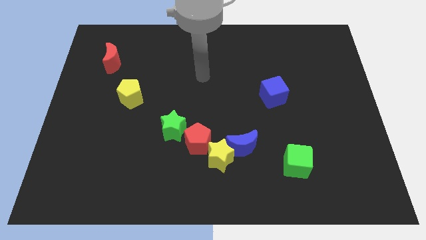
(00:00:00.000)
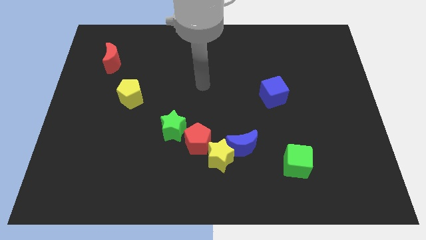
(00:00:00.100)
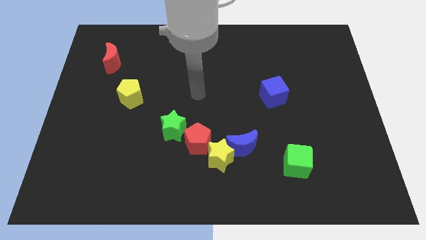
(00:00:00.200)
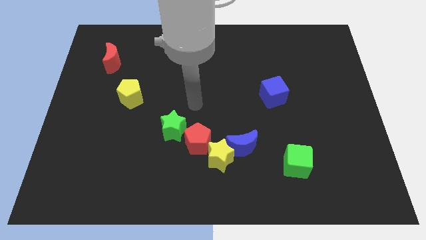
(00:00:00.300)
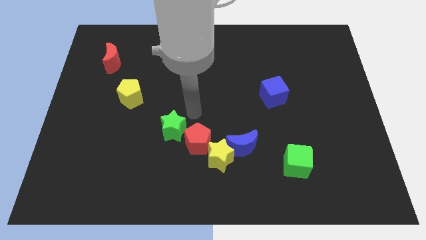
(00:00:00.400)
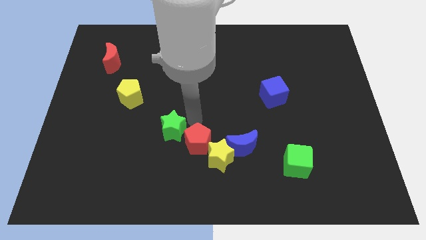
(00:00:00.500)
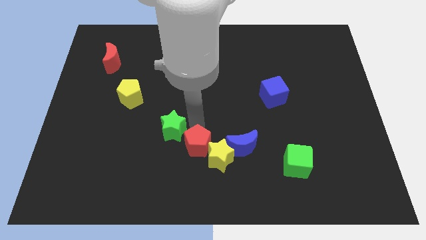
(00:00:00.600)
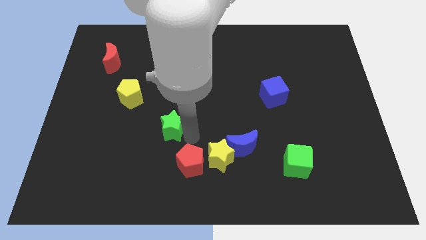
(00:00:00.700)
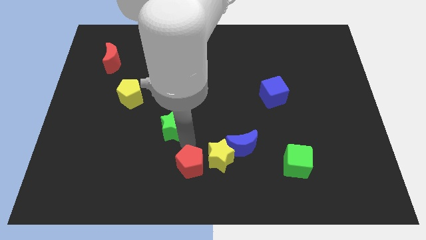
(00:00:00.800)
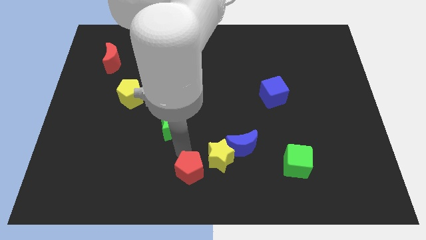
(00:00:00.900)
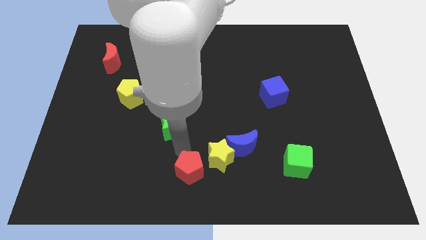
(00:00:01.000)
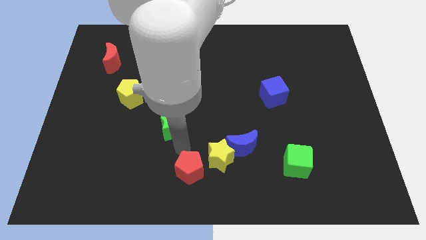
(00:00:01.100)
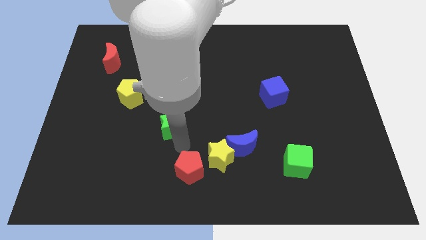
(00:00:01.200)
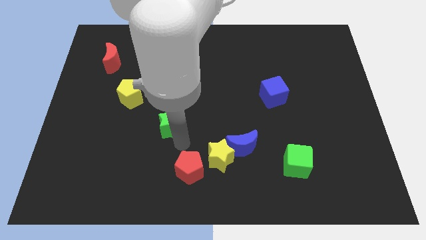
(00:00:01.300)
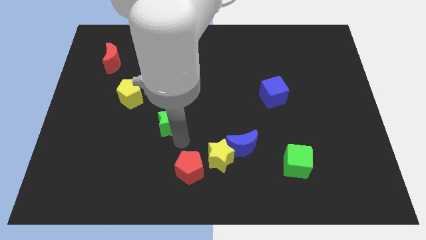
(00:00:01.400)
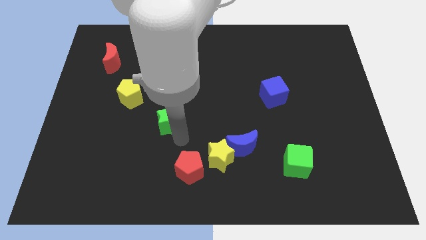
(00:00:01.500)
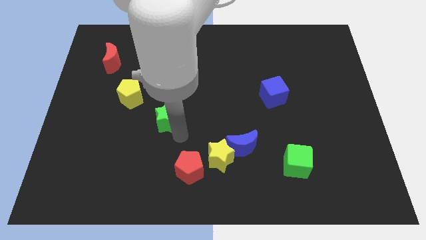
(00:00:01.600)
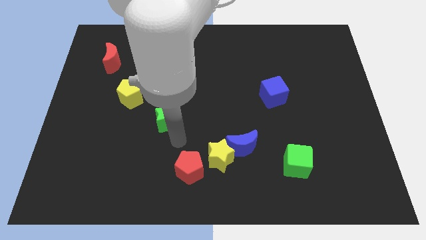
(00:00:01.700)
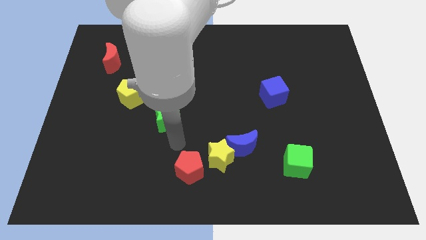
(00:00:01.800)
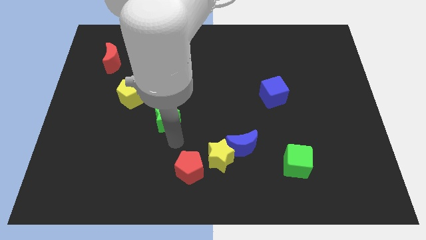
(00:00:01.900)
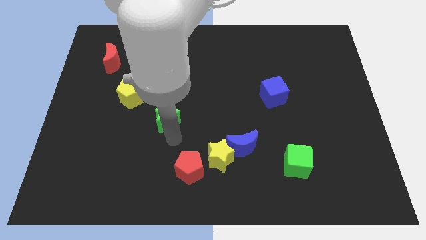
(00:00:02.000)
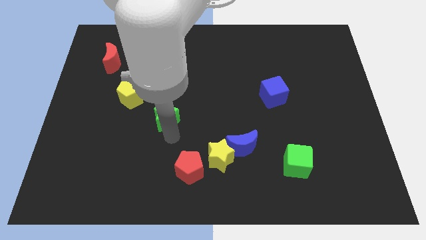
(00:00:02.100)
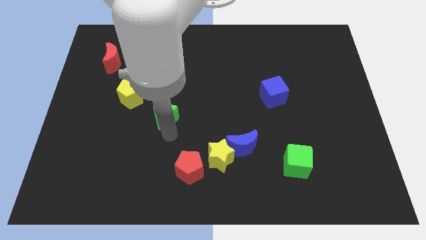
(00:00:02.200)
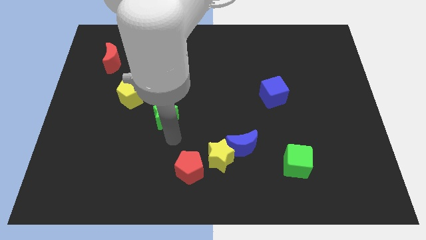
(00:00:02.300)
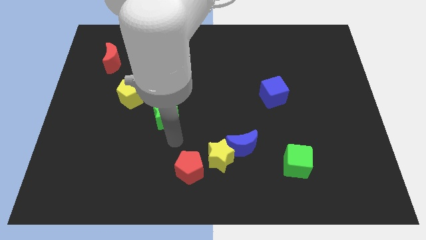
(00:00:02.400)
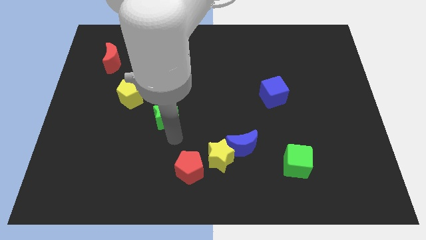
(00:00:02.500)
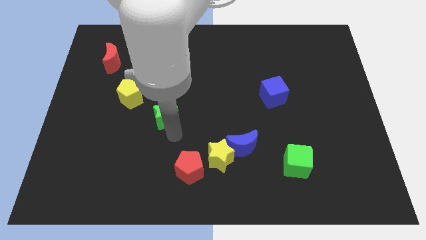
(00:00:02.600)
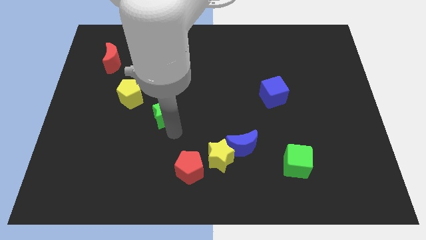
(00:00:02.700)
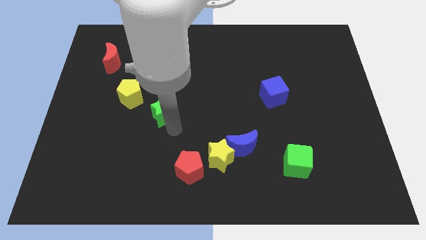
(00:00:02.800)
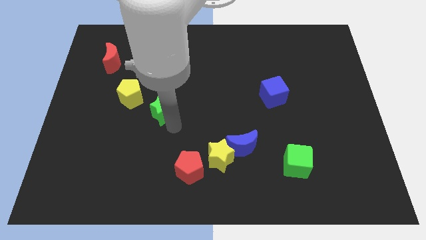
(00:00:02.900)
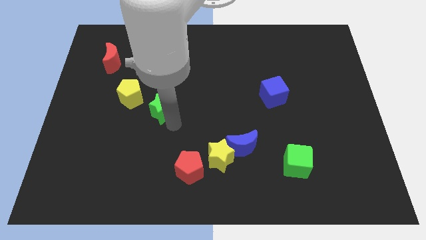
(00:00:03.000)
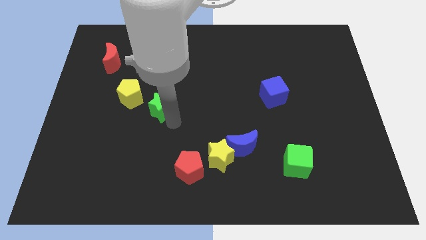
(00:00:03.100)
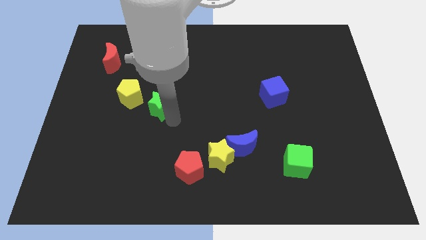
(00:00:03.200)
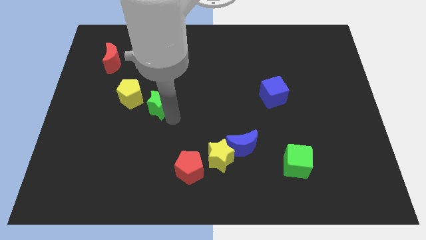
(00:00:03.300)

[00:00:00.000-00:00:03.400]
move the green star up and left diagonally a bit

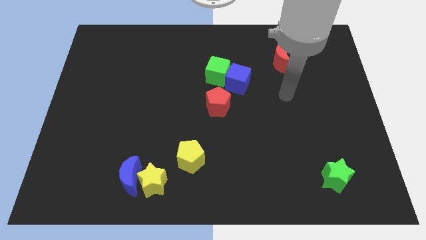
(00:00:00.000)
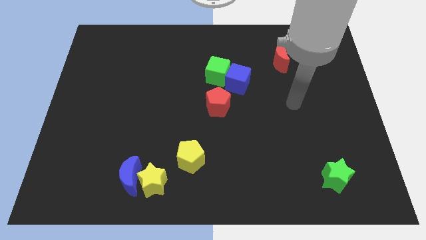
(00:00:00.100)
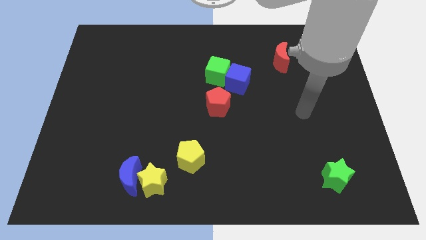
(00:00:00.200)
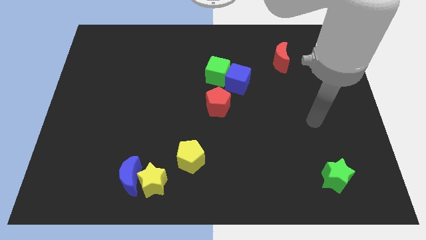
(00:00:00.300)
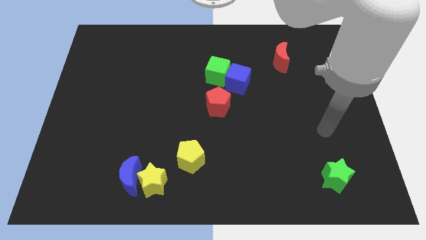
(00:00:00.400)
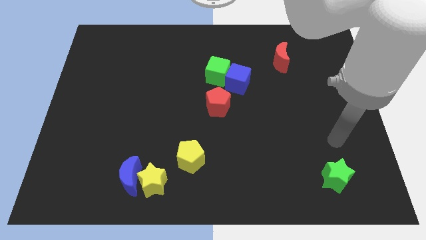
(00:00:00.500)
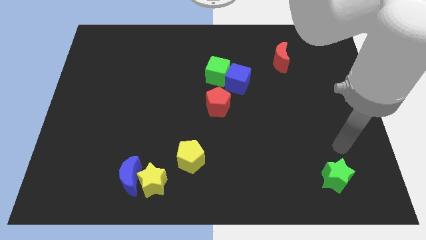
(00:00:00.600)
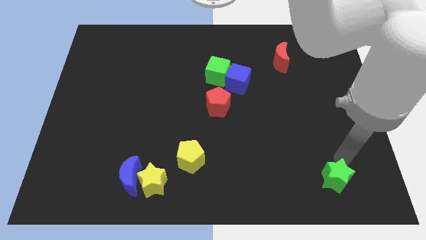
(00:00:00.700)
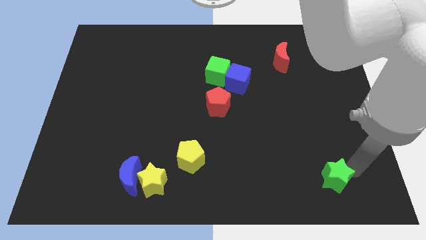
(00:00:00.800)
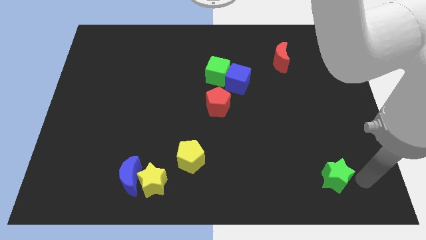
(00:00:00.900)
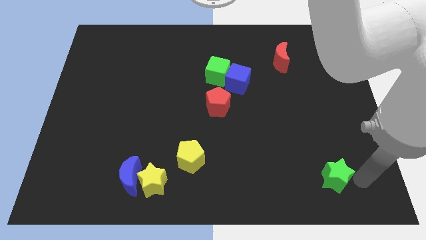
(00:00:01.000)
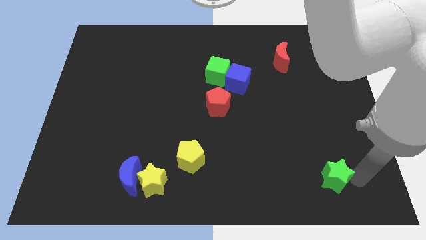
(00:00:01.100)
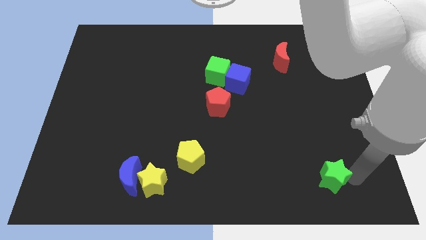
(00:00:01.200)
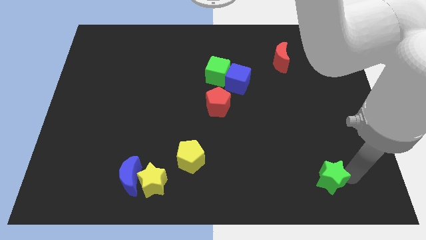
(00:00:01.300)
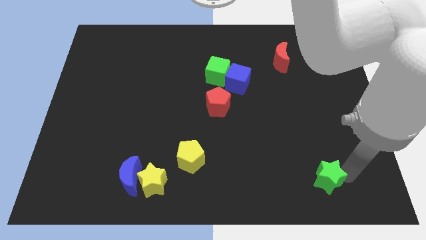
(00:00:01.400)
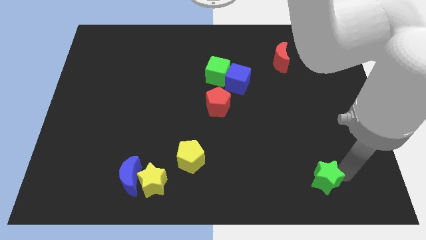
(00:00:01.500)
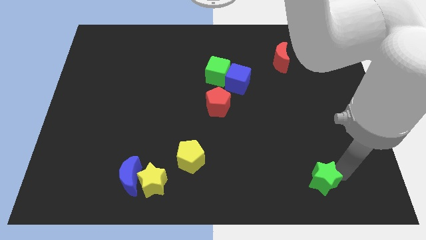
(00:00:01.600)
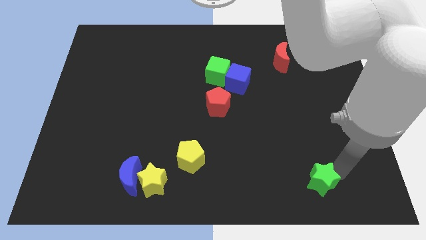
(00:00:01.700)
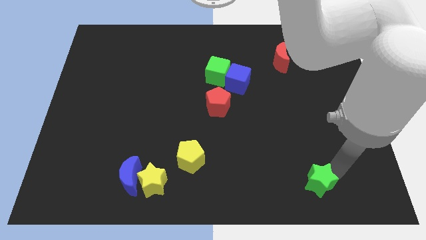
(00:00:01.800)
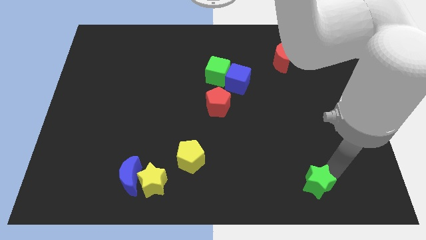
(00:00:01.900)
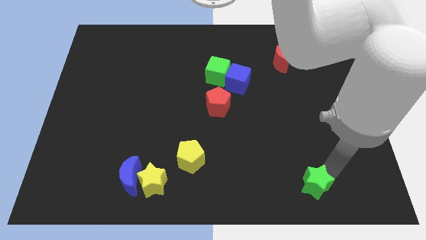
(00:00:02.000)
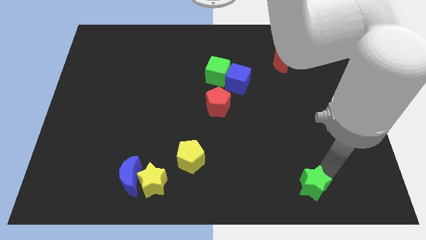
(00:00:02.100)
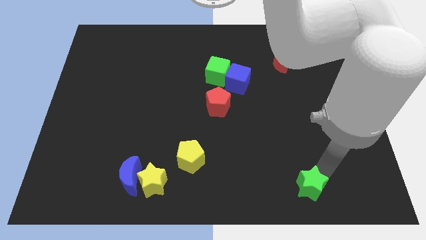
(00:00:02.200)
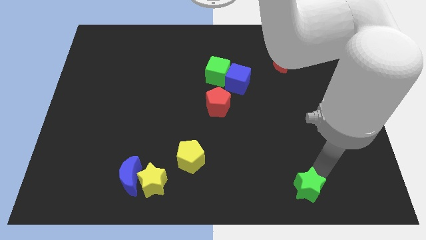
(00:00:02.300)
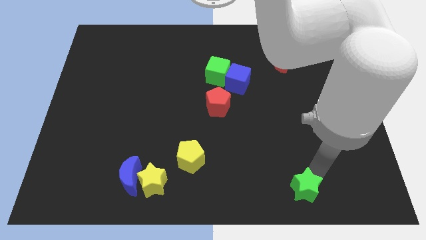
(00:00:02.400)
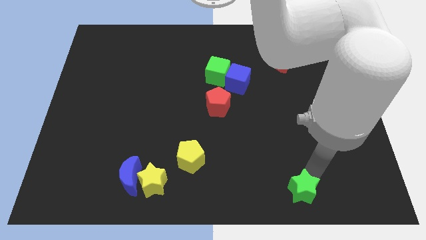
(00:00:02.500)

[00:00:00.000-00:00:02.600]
slide the green star left slightly

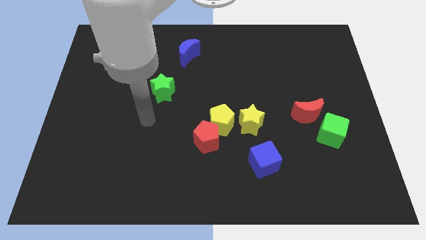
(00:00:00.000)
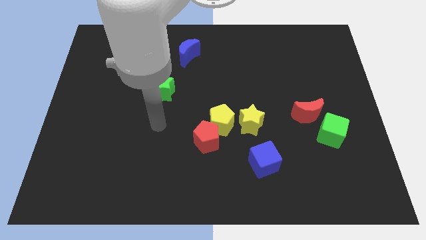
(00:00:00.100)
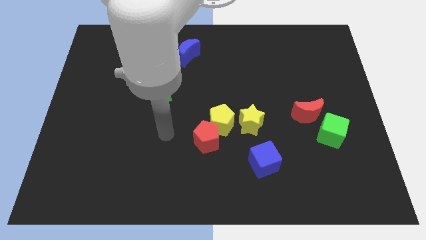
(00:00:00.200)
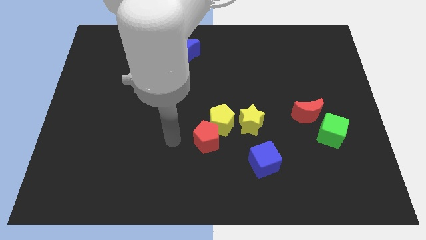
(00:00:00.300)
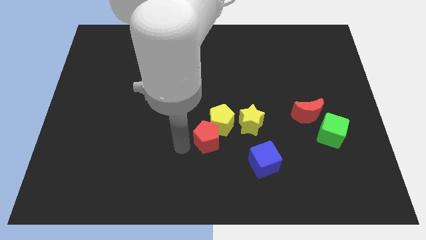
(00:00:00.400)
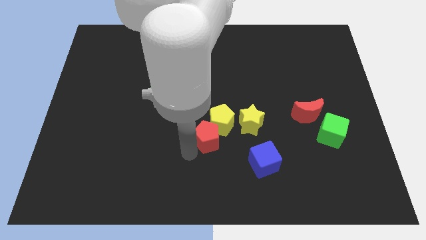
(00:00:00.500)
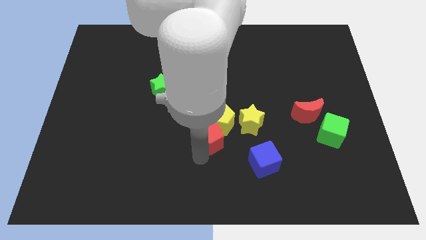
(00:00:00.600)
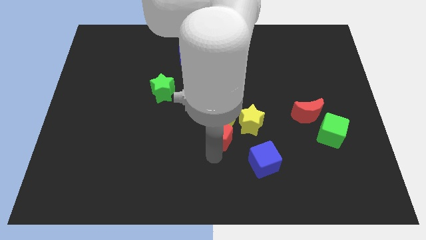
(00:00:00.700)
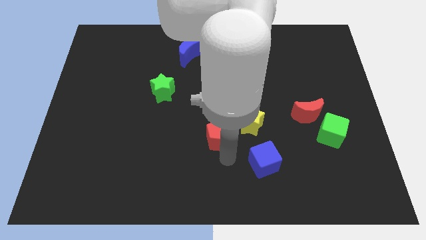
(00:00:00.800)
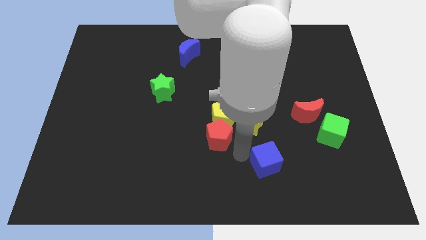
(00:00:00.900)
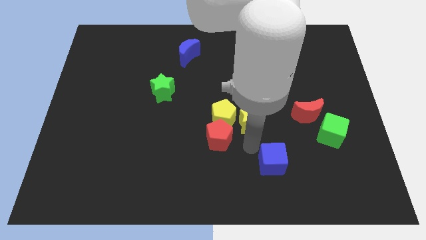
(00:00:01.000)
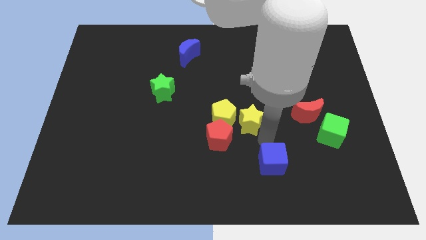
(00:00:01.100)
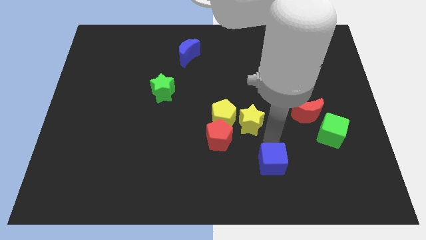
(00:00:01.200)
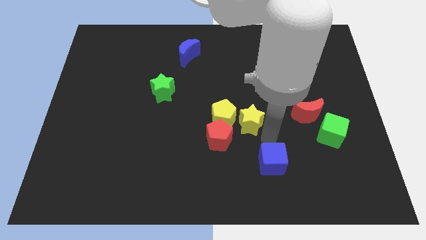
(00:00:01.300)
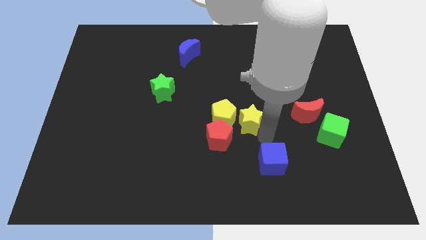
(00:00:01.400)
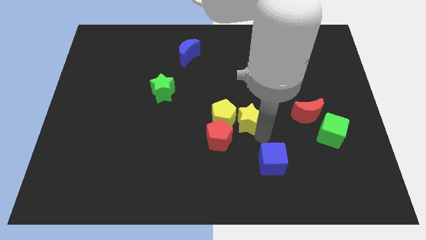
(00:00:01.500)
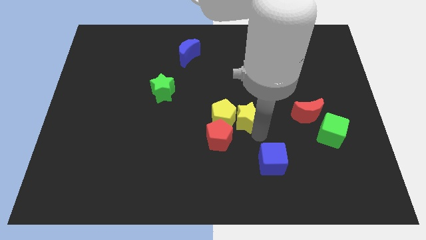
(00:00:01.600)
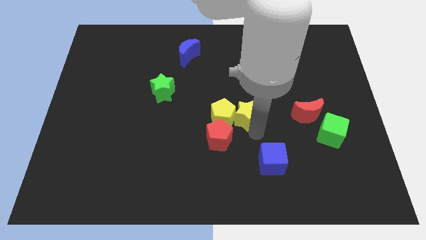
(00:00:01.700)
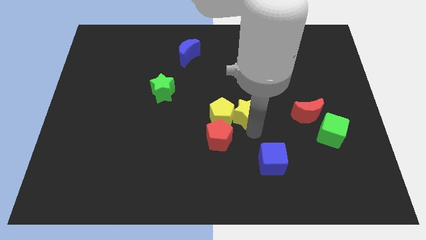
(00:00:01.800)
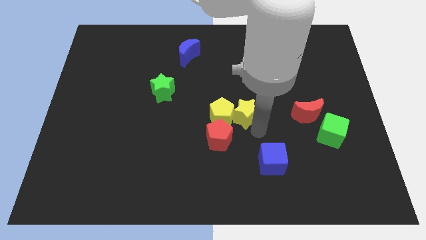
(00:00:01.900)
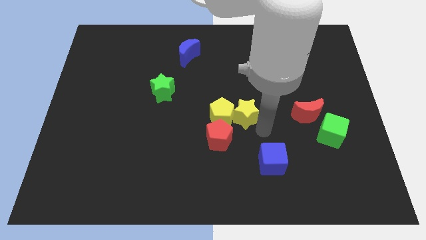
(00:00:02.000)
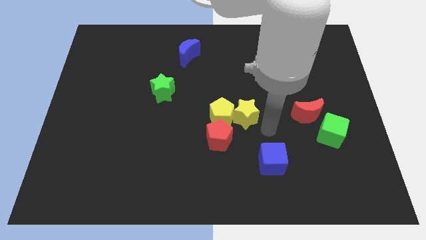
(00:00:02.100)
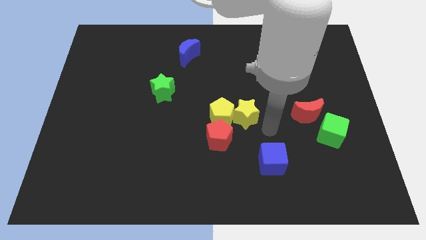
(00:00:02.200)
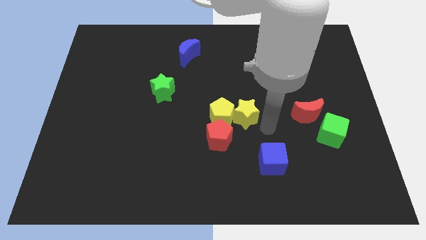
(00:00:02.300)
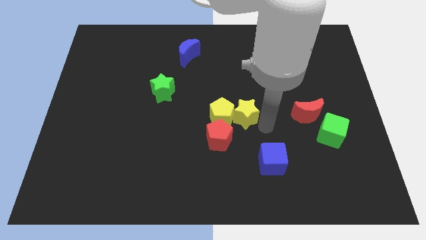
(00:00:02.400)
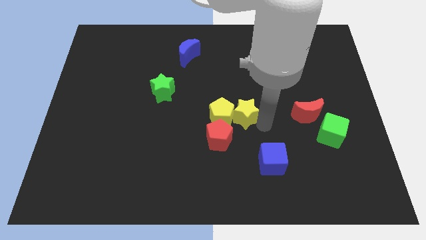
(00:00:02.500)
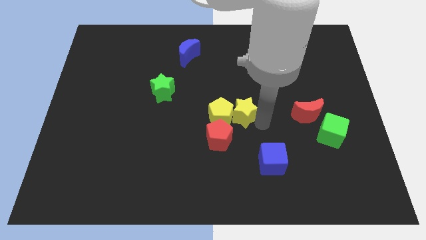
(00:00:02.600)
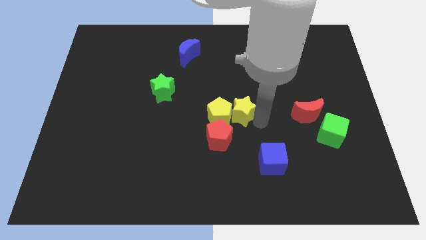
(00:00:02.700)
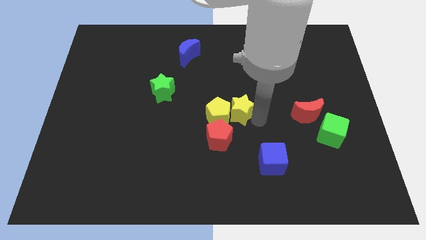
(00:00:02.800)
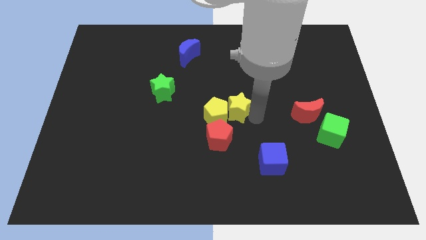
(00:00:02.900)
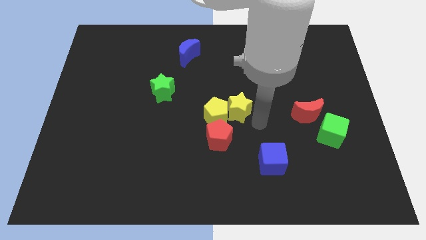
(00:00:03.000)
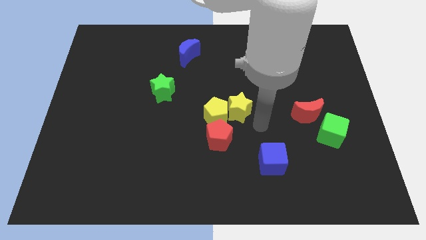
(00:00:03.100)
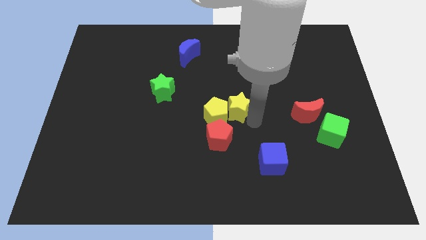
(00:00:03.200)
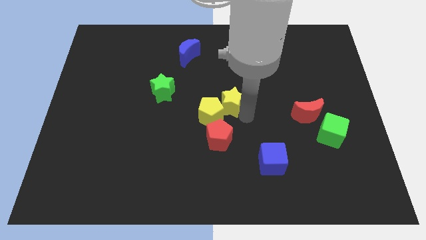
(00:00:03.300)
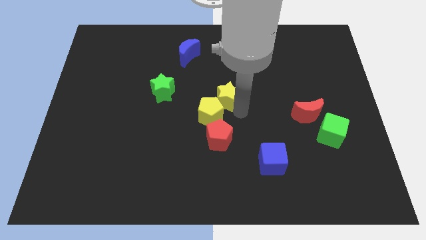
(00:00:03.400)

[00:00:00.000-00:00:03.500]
slide the yellow star somewhat up and then left
